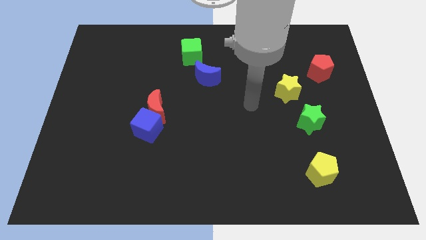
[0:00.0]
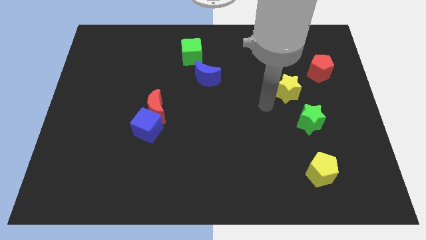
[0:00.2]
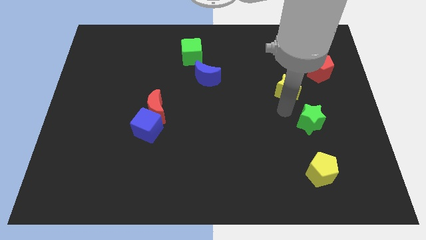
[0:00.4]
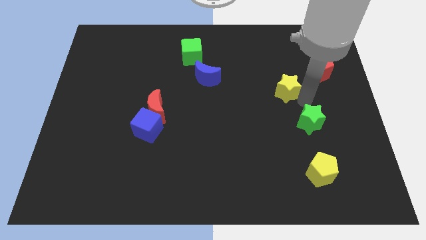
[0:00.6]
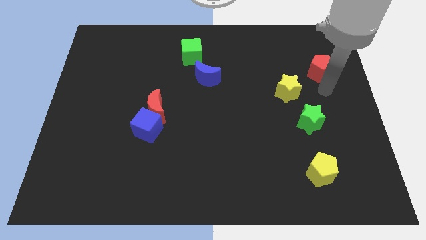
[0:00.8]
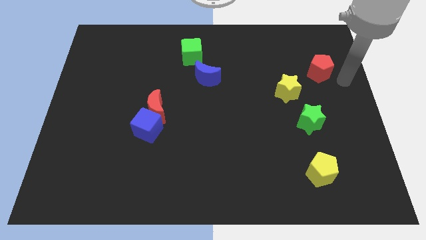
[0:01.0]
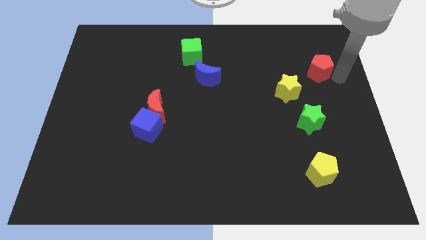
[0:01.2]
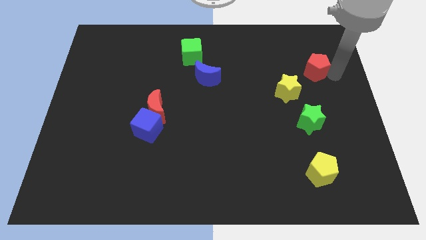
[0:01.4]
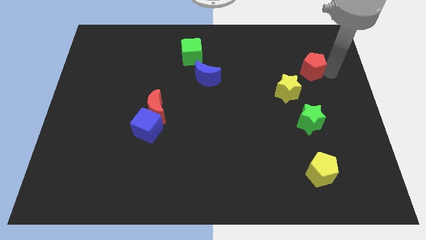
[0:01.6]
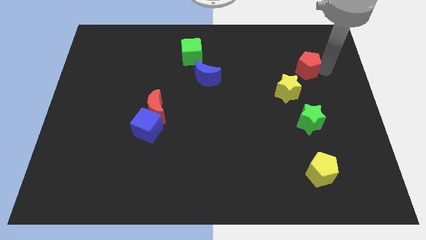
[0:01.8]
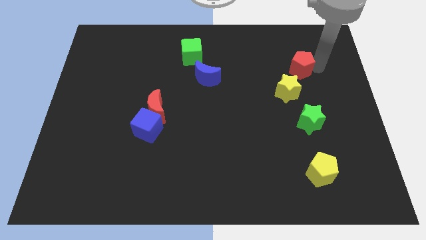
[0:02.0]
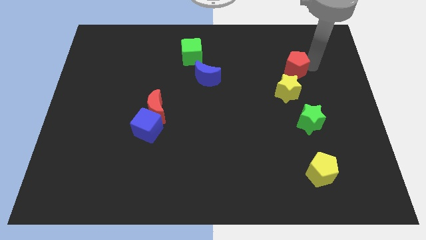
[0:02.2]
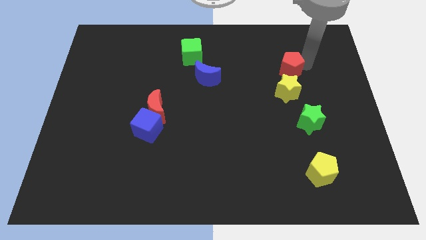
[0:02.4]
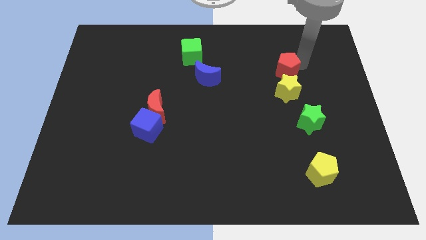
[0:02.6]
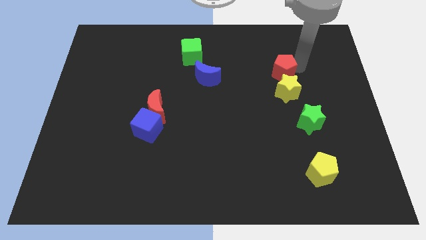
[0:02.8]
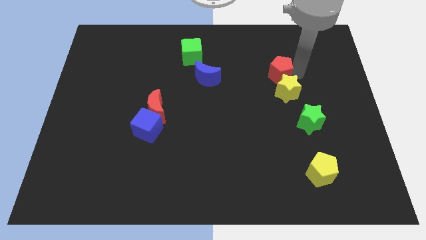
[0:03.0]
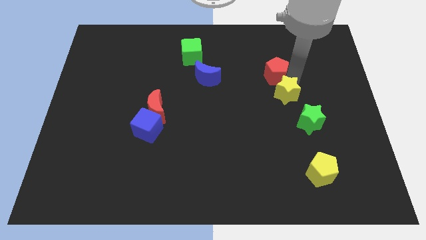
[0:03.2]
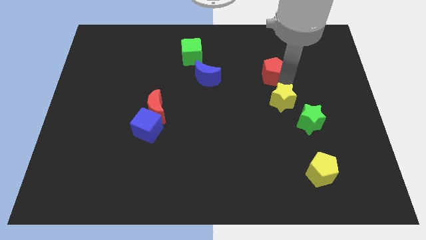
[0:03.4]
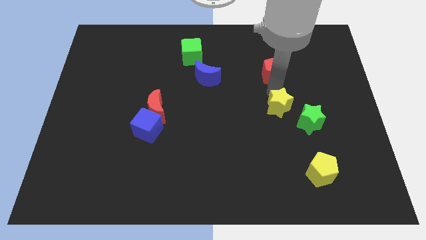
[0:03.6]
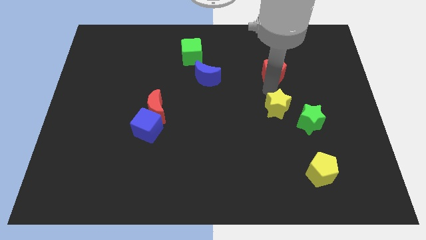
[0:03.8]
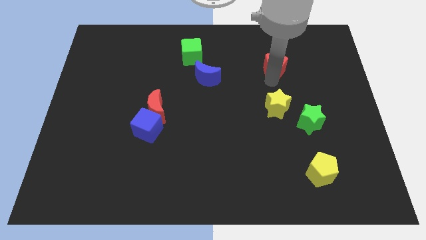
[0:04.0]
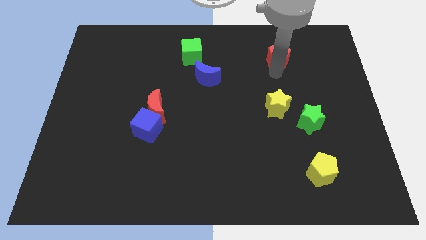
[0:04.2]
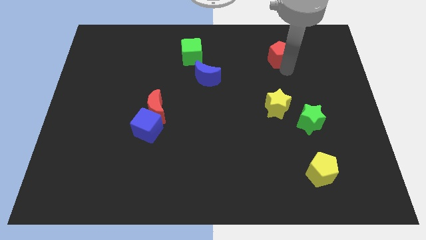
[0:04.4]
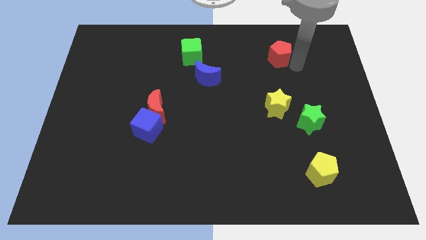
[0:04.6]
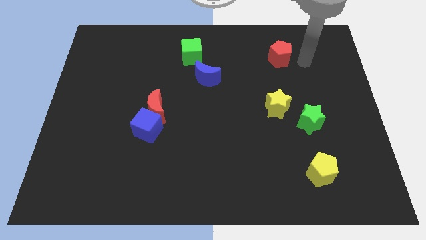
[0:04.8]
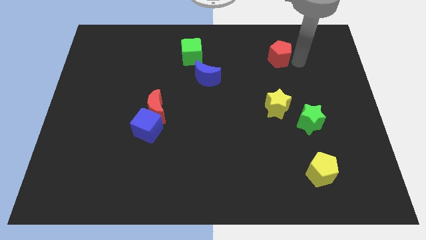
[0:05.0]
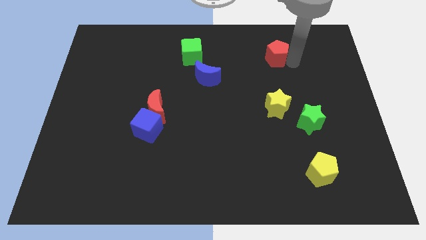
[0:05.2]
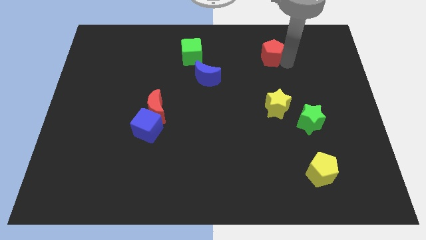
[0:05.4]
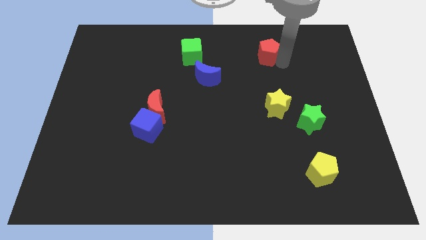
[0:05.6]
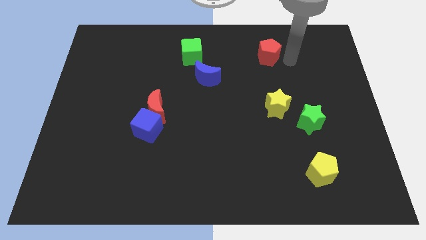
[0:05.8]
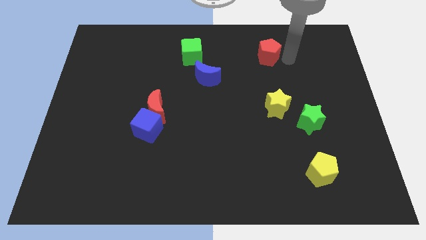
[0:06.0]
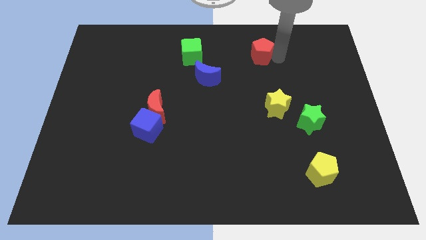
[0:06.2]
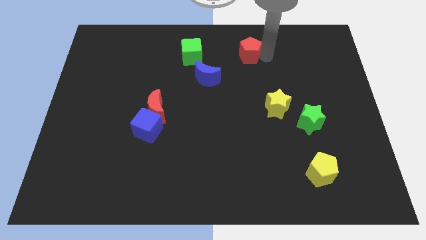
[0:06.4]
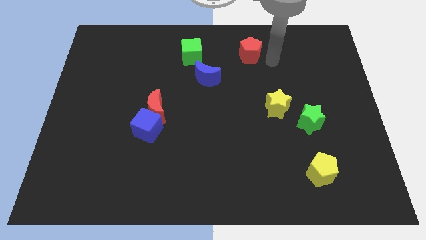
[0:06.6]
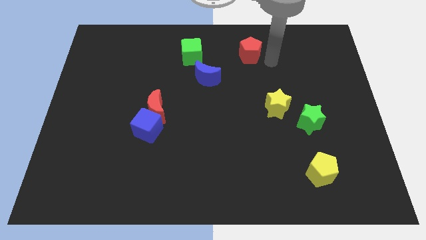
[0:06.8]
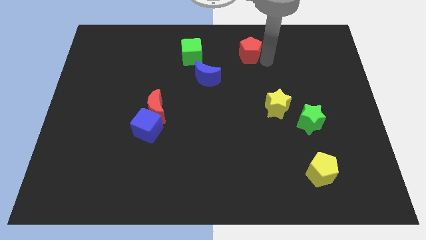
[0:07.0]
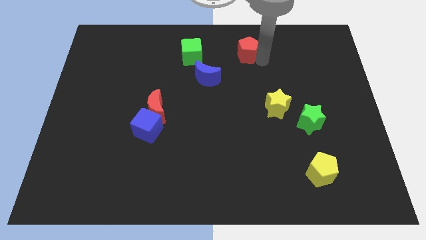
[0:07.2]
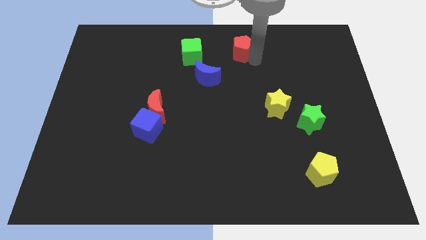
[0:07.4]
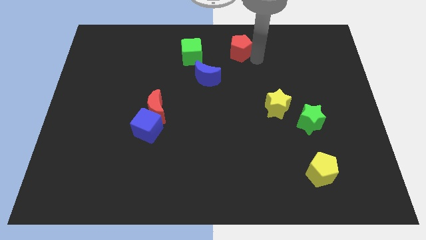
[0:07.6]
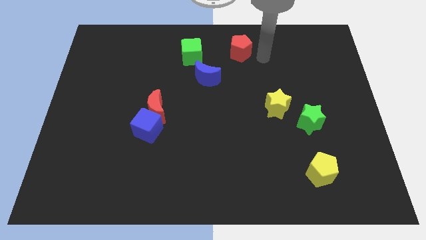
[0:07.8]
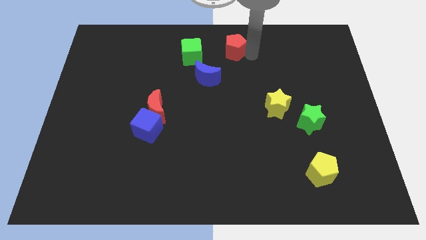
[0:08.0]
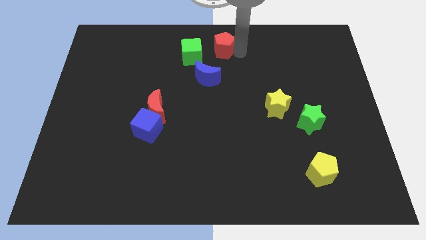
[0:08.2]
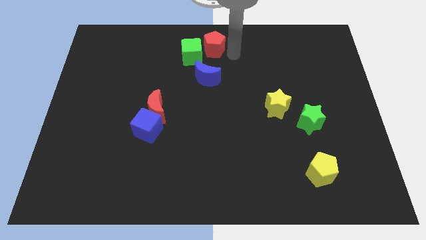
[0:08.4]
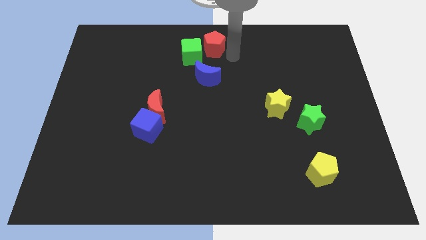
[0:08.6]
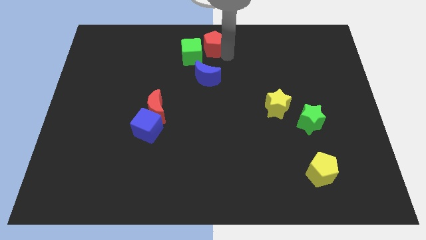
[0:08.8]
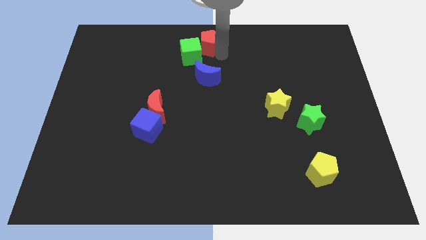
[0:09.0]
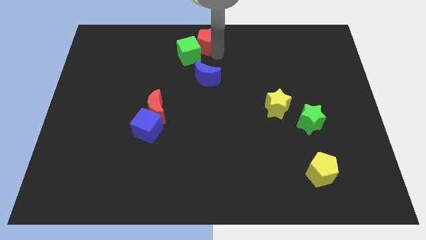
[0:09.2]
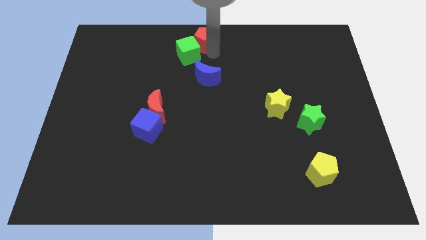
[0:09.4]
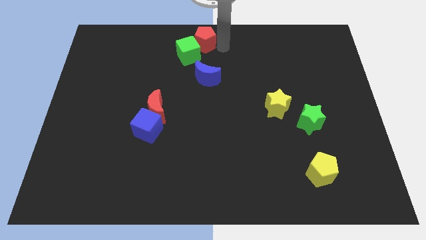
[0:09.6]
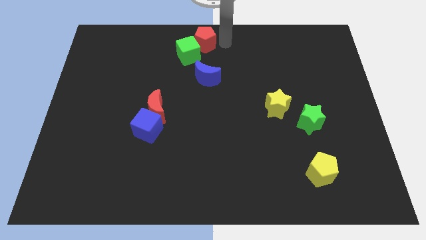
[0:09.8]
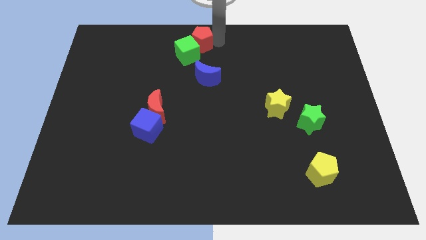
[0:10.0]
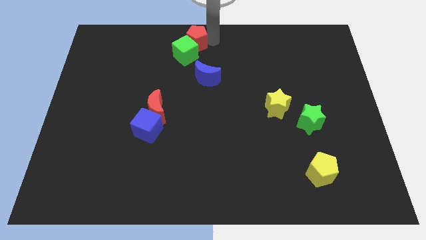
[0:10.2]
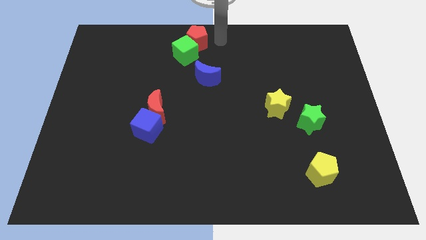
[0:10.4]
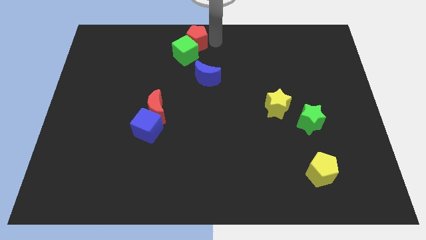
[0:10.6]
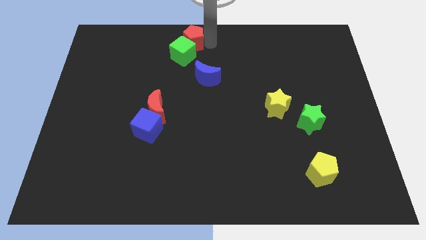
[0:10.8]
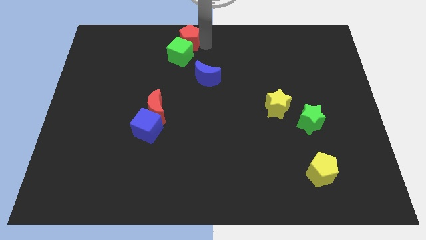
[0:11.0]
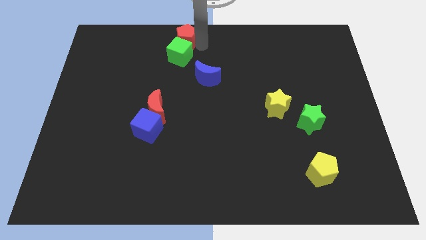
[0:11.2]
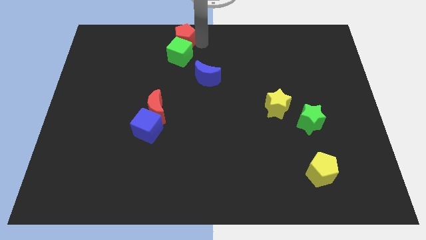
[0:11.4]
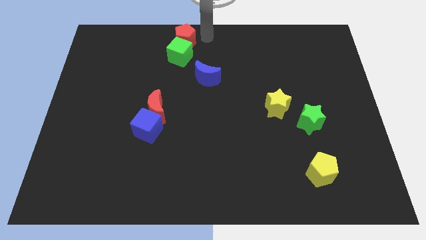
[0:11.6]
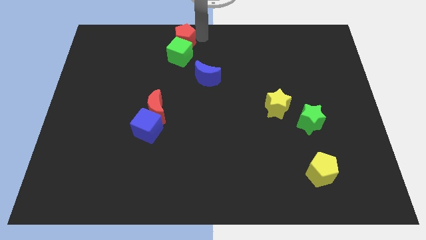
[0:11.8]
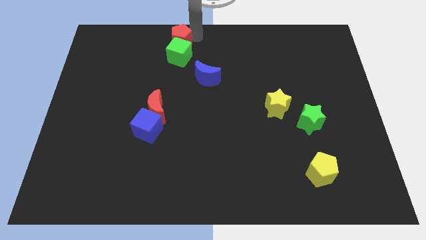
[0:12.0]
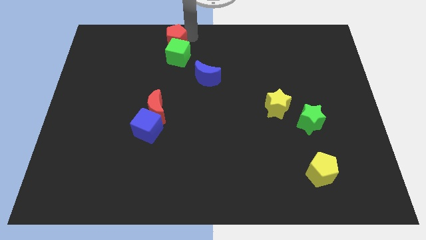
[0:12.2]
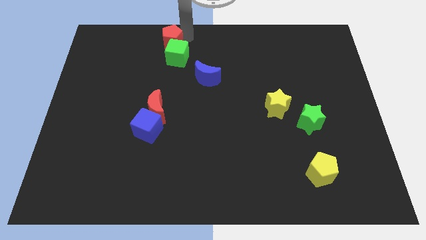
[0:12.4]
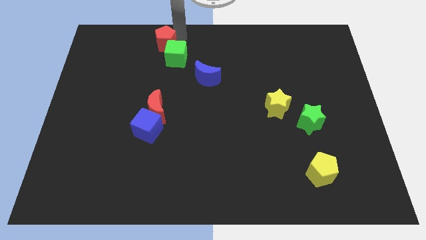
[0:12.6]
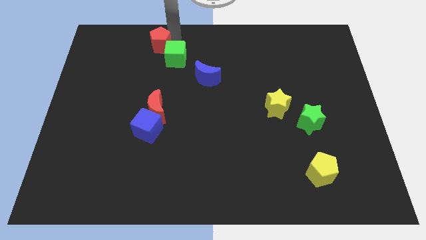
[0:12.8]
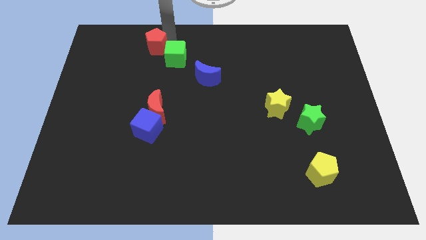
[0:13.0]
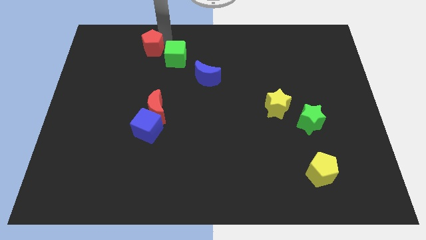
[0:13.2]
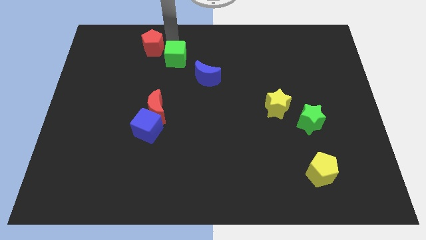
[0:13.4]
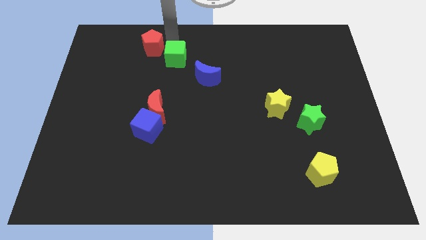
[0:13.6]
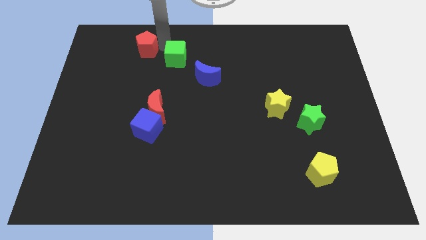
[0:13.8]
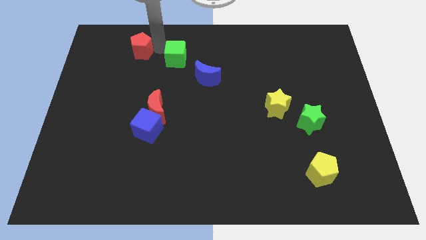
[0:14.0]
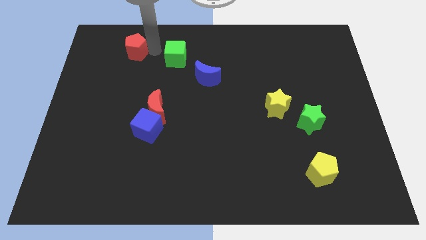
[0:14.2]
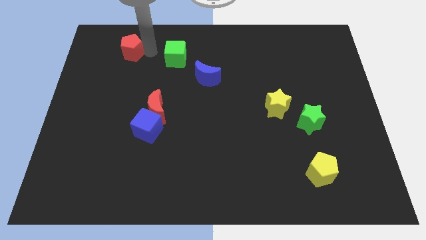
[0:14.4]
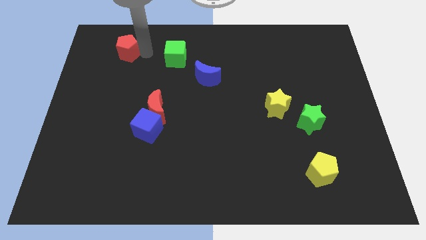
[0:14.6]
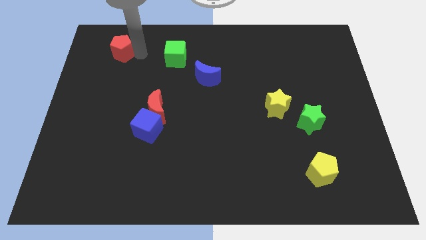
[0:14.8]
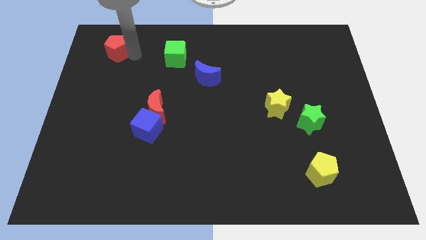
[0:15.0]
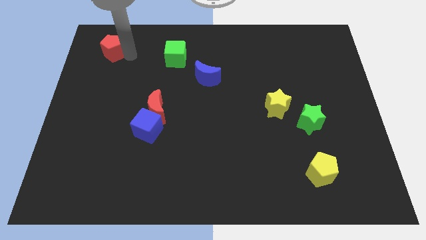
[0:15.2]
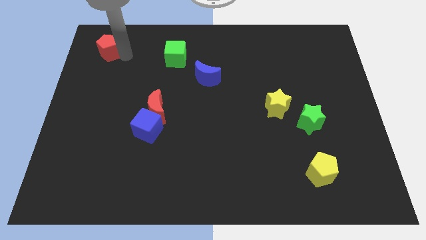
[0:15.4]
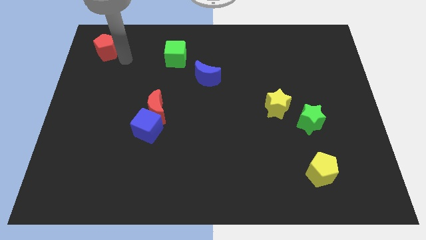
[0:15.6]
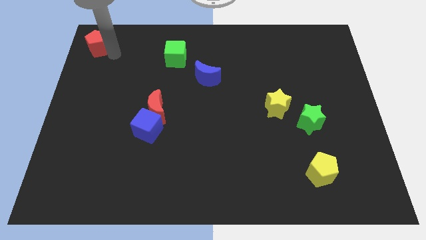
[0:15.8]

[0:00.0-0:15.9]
slide the red pentagon to the top left corner
